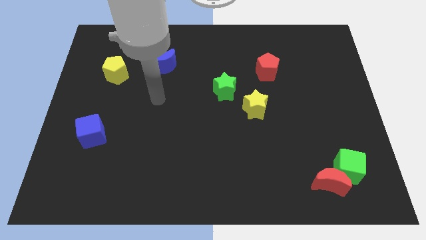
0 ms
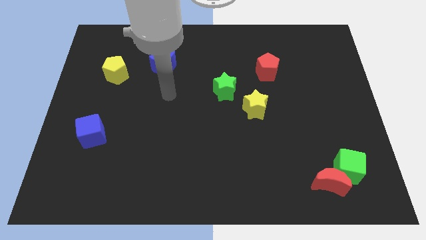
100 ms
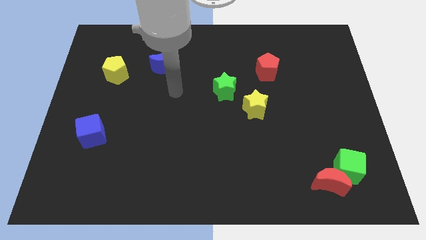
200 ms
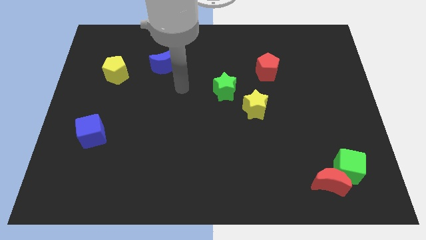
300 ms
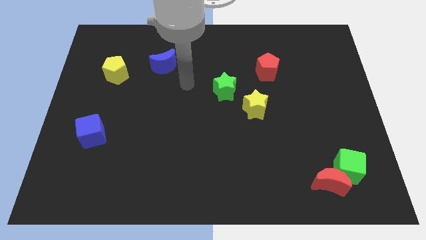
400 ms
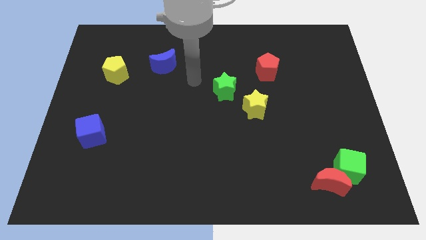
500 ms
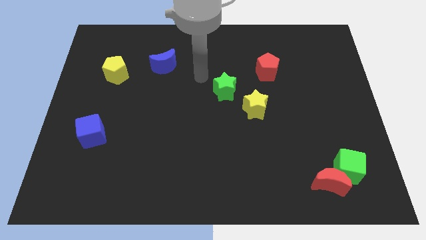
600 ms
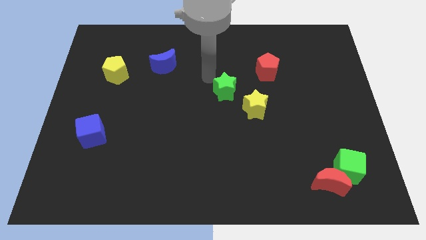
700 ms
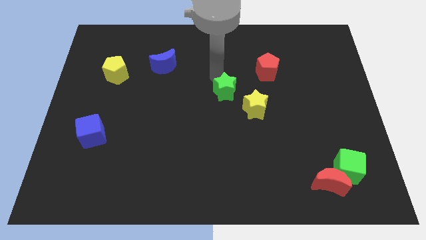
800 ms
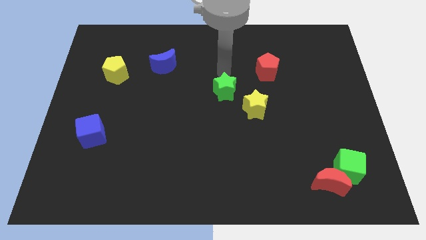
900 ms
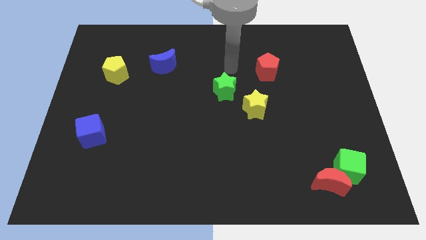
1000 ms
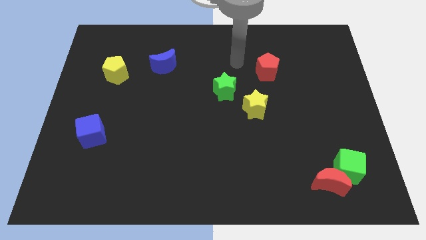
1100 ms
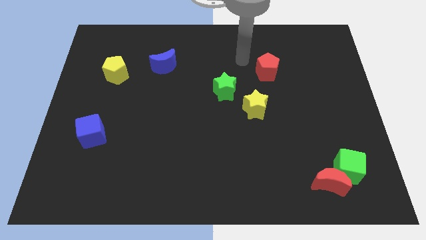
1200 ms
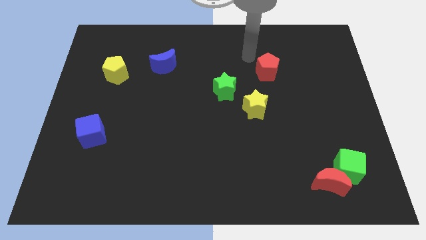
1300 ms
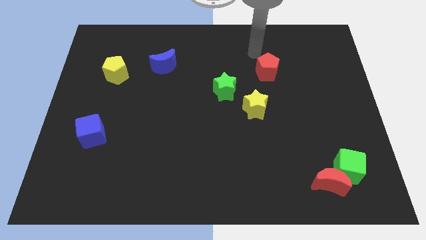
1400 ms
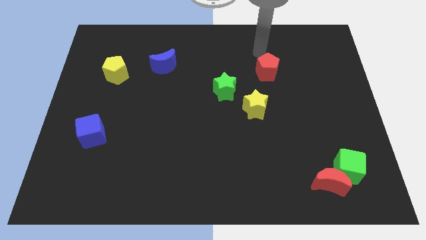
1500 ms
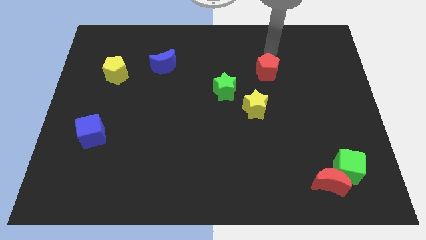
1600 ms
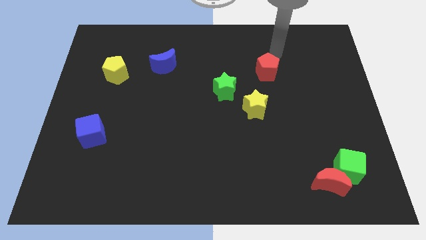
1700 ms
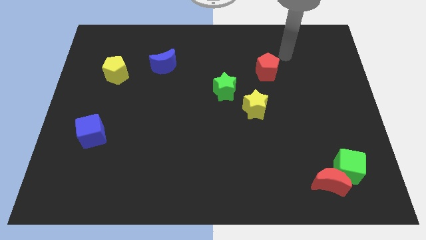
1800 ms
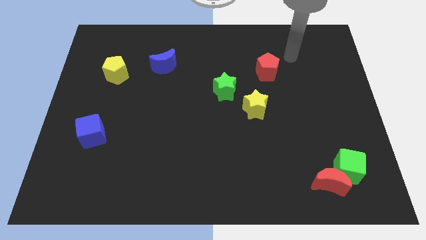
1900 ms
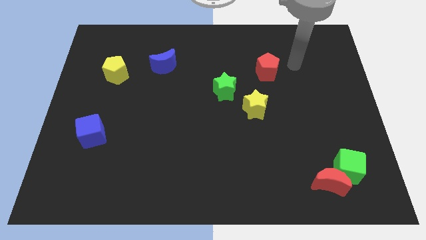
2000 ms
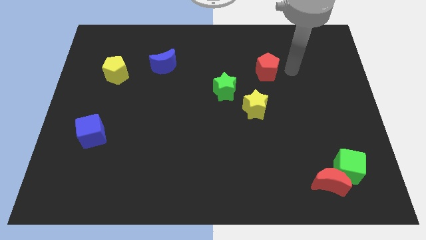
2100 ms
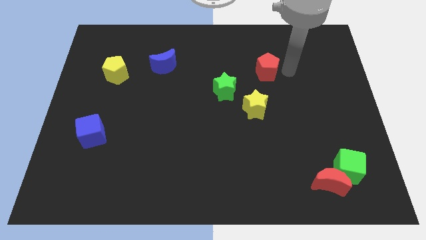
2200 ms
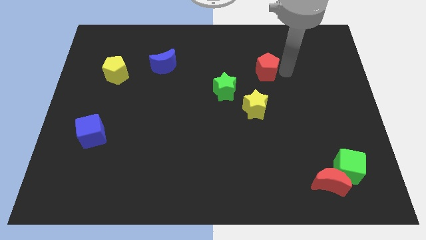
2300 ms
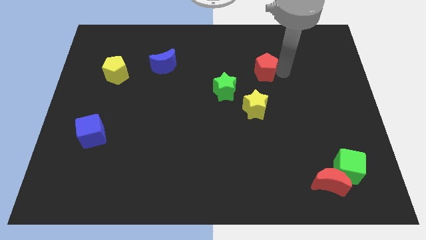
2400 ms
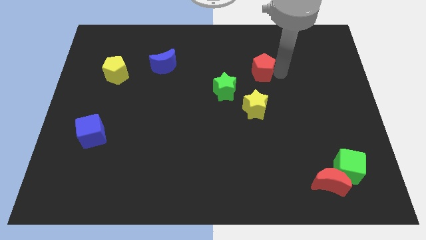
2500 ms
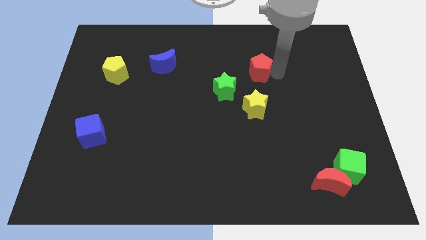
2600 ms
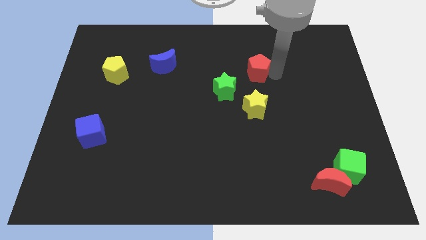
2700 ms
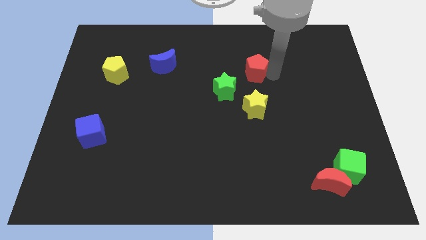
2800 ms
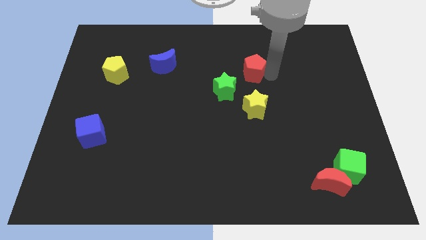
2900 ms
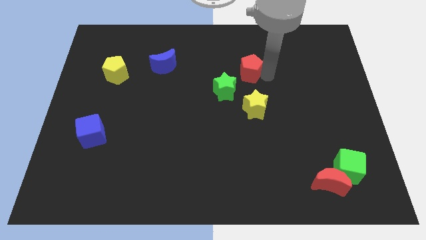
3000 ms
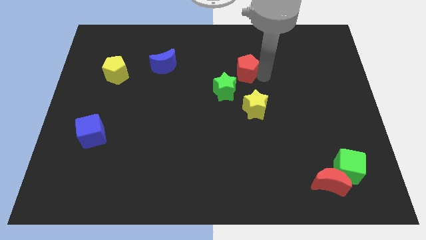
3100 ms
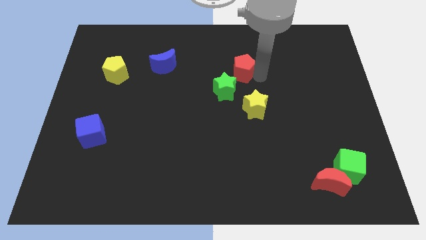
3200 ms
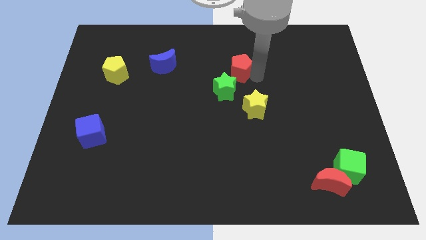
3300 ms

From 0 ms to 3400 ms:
slide the red pentagon slightly to the left

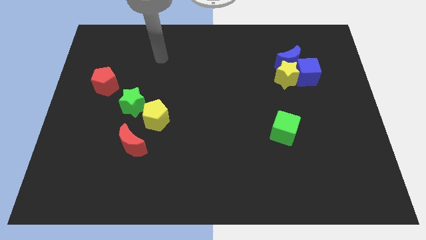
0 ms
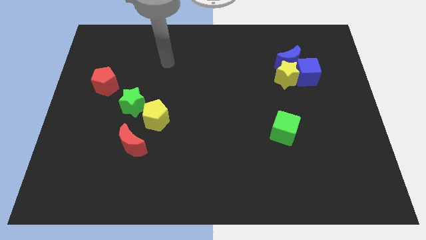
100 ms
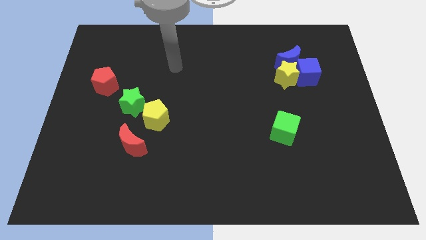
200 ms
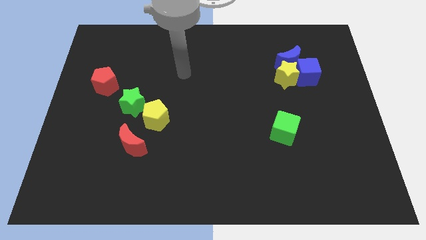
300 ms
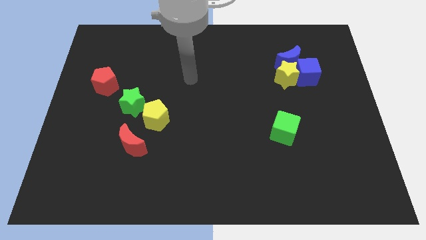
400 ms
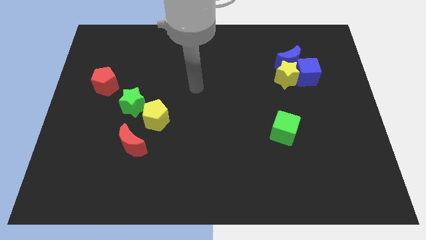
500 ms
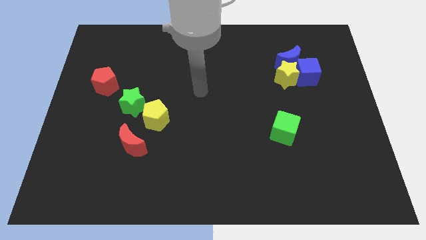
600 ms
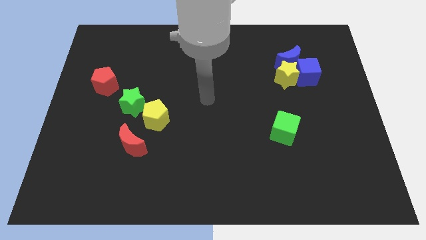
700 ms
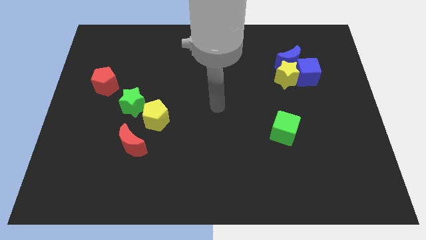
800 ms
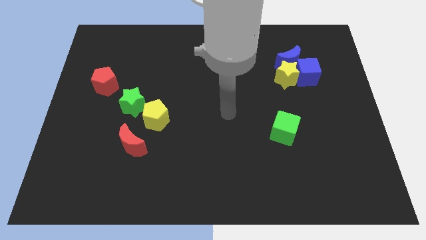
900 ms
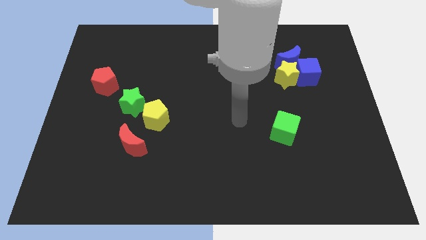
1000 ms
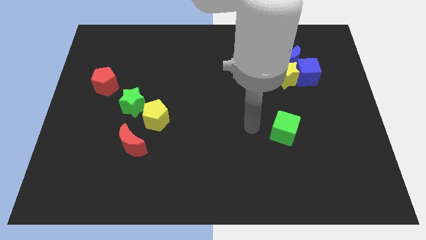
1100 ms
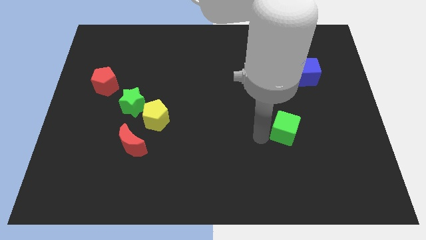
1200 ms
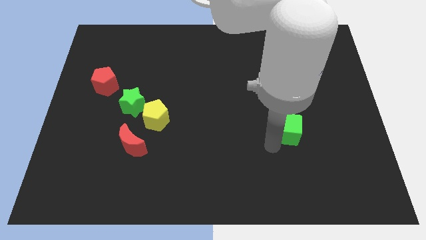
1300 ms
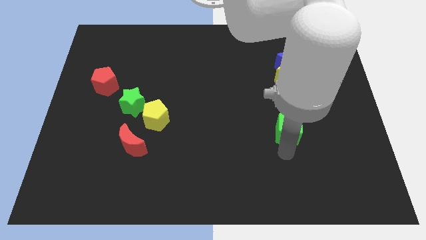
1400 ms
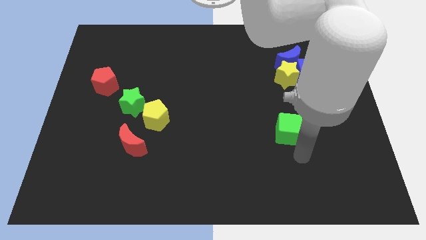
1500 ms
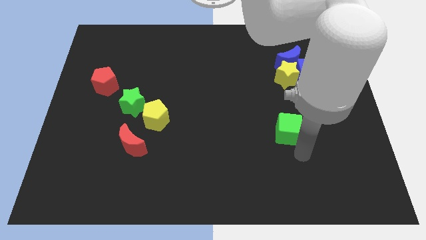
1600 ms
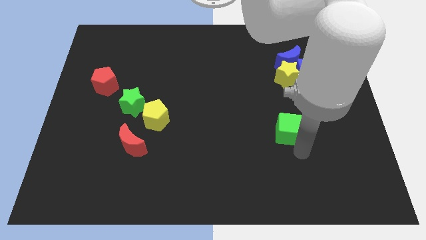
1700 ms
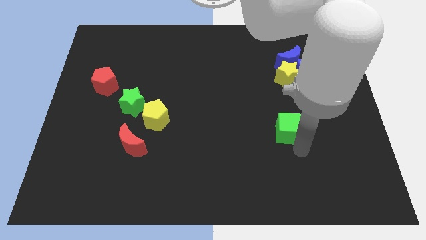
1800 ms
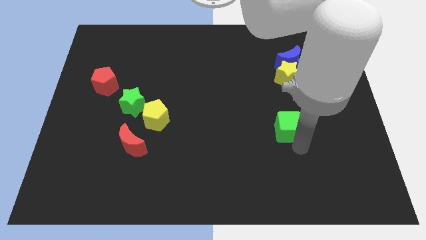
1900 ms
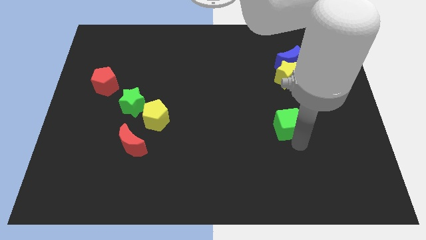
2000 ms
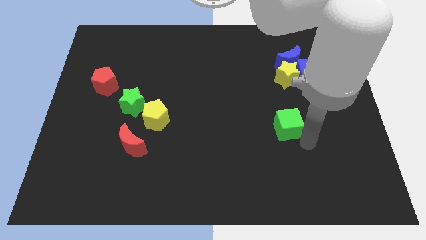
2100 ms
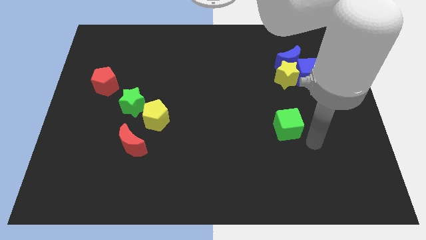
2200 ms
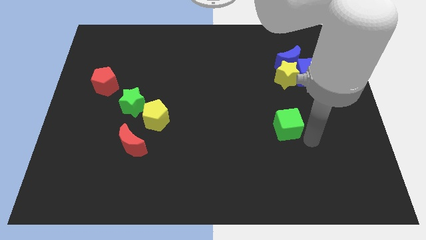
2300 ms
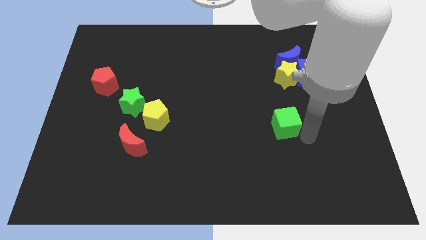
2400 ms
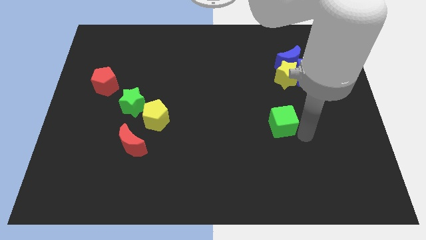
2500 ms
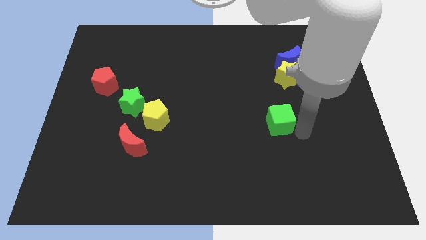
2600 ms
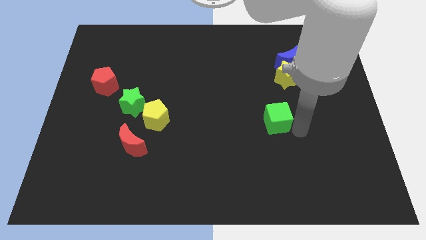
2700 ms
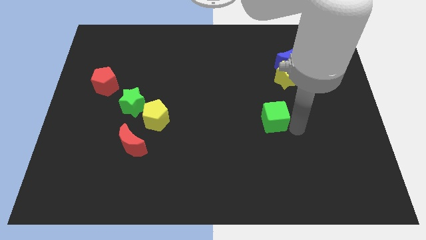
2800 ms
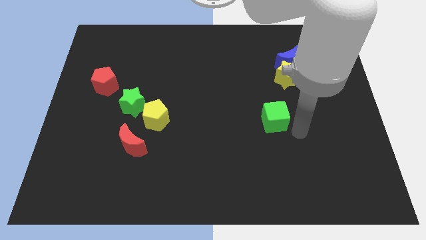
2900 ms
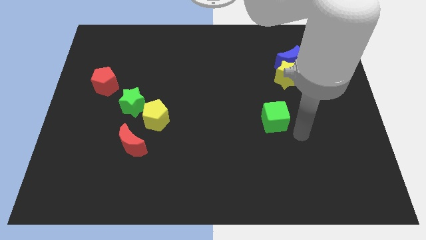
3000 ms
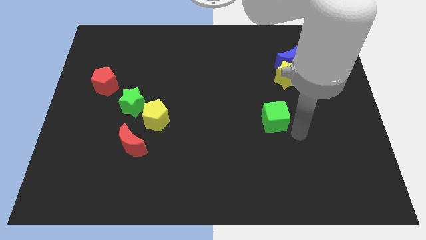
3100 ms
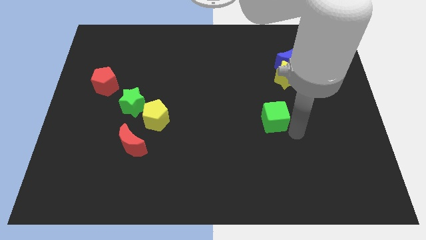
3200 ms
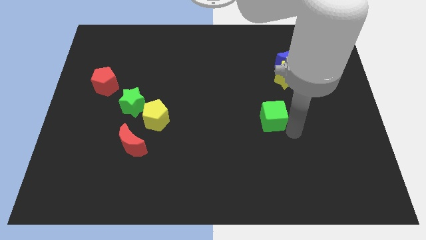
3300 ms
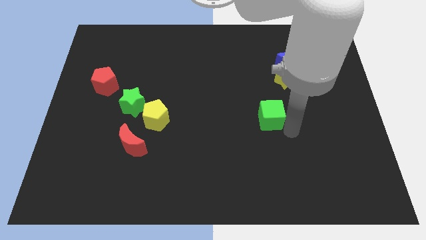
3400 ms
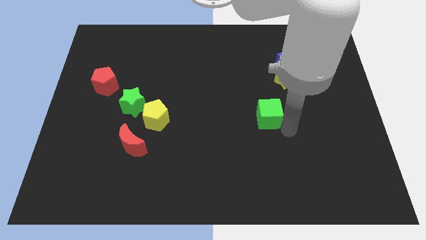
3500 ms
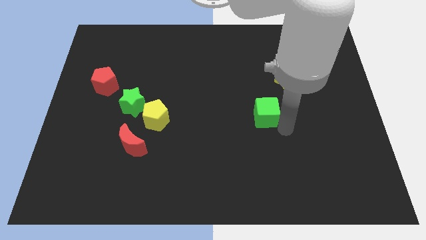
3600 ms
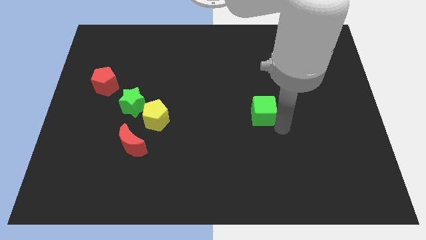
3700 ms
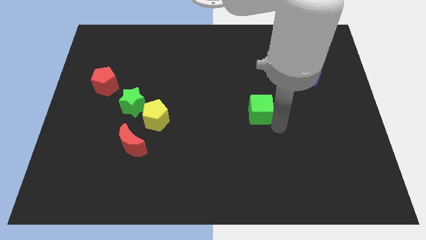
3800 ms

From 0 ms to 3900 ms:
push the green cube up and to the left diagonally a little bit

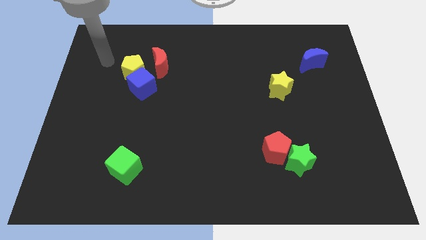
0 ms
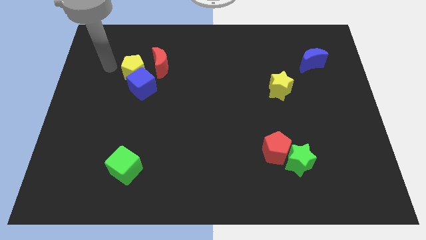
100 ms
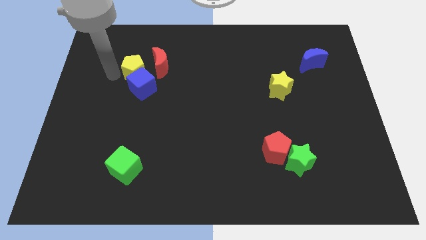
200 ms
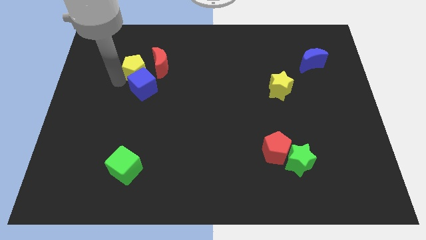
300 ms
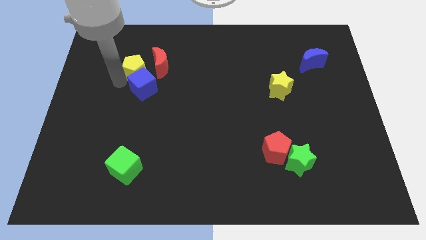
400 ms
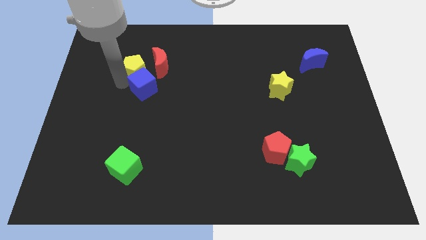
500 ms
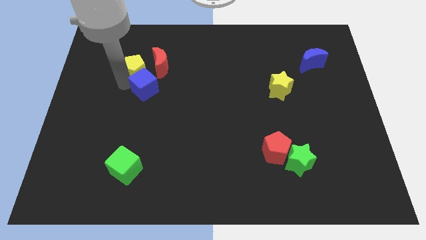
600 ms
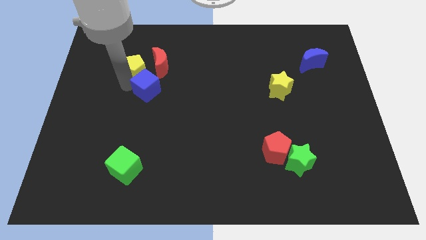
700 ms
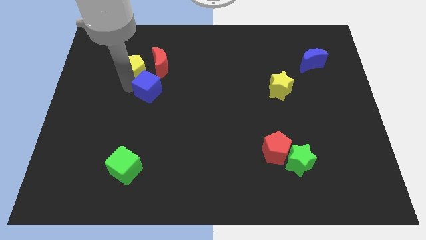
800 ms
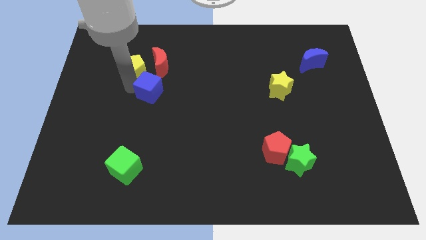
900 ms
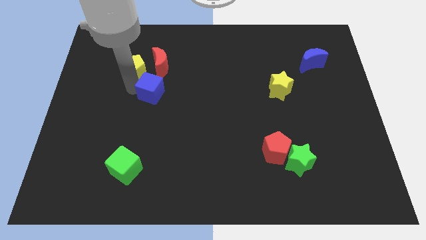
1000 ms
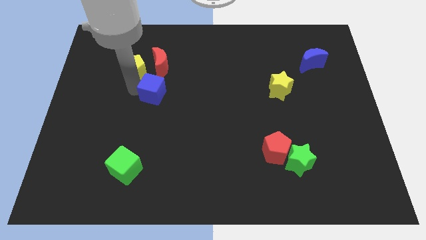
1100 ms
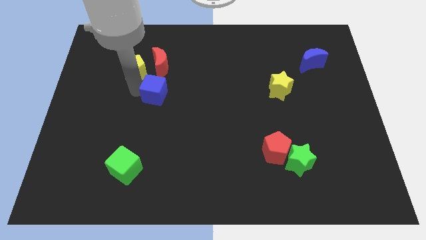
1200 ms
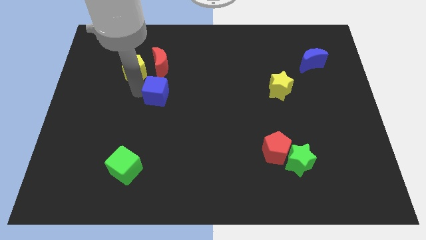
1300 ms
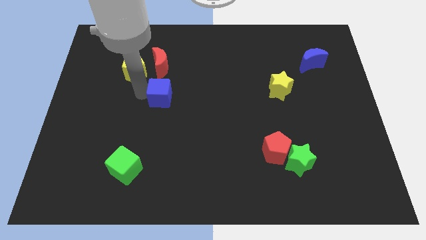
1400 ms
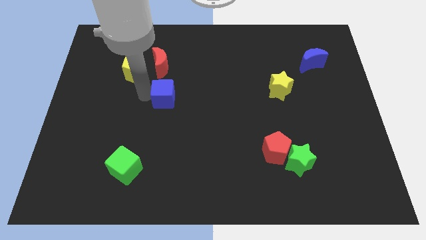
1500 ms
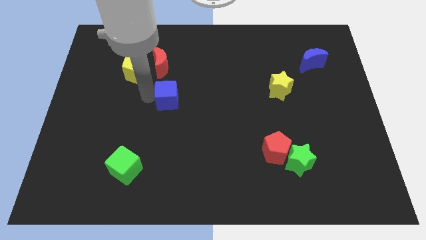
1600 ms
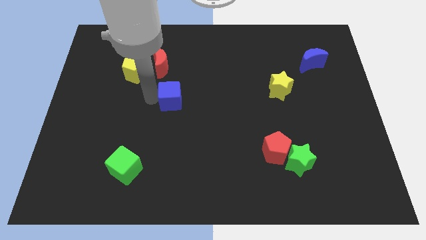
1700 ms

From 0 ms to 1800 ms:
slightly move the blue cube right
